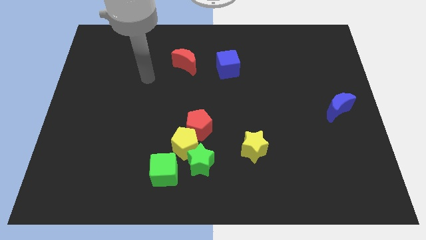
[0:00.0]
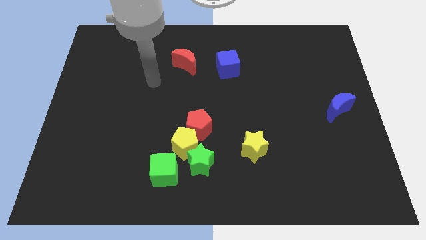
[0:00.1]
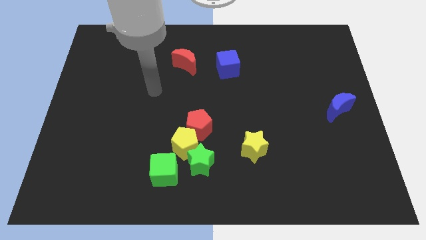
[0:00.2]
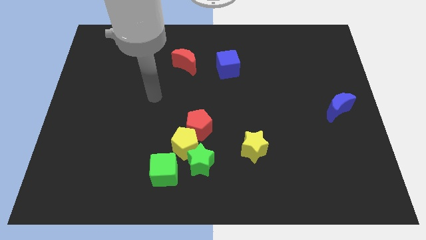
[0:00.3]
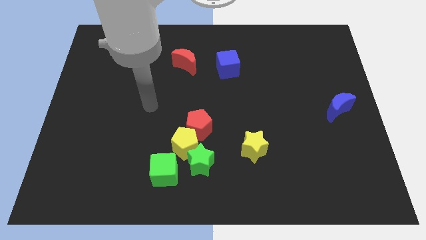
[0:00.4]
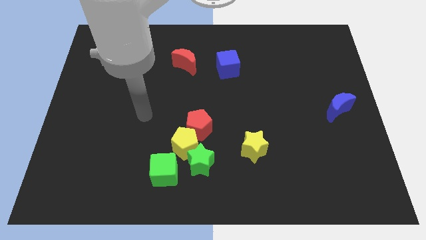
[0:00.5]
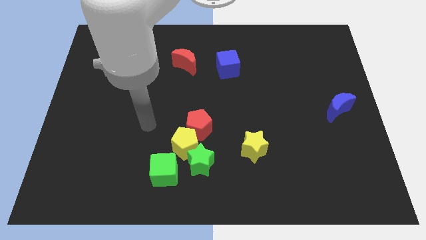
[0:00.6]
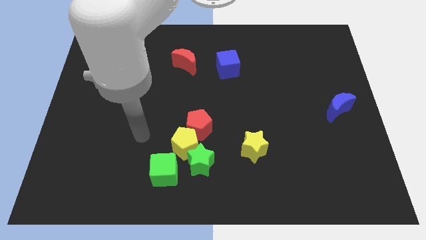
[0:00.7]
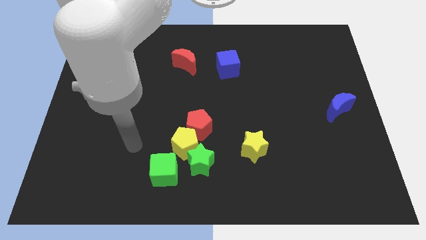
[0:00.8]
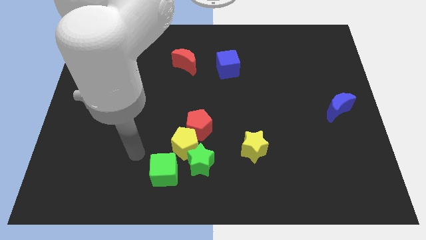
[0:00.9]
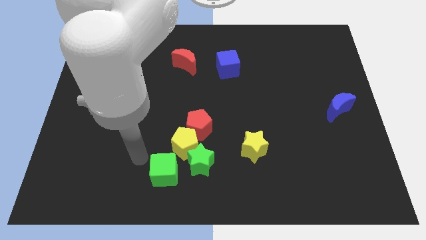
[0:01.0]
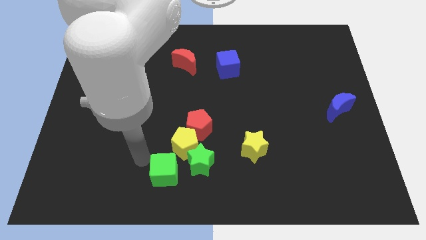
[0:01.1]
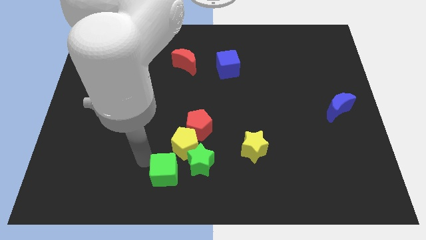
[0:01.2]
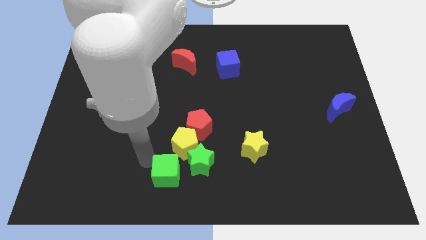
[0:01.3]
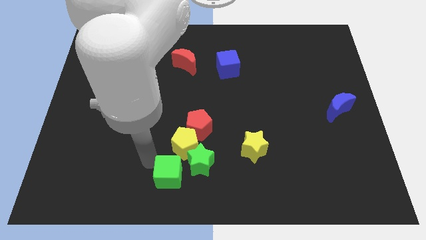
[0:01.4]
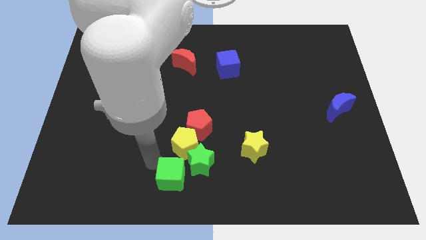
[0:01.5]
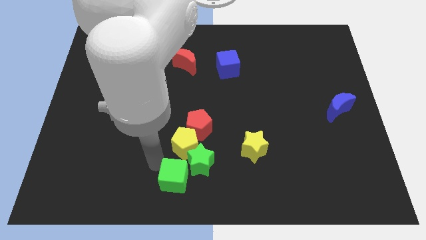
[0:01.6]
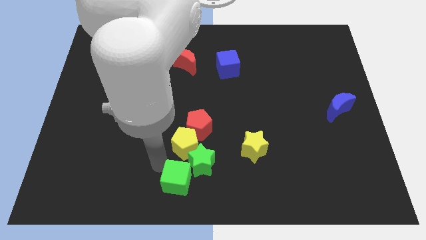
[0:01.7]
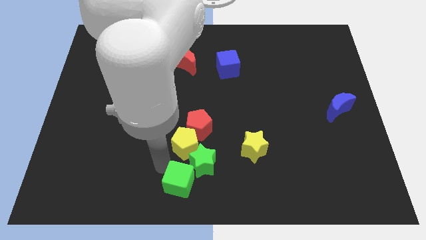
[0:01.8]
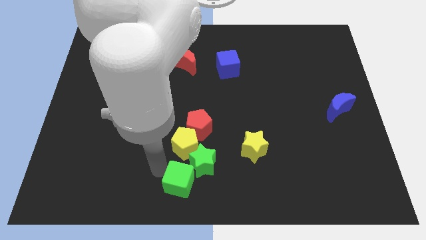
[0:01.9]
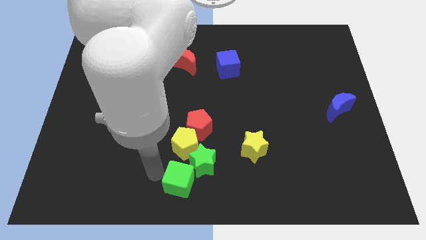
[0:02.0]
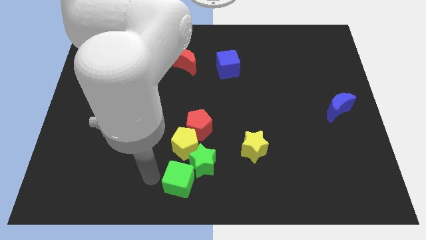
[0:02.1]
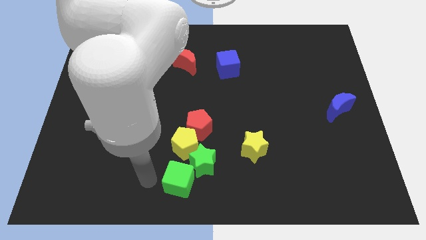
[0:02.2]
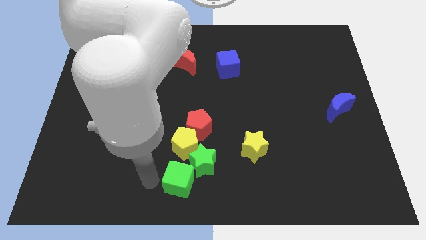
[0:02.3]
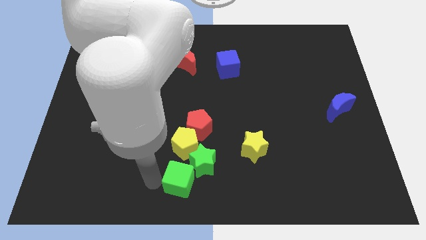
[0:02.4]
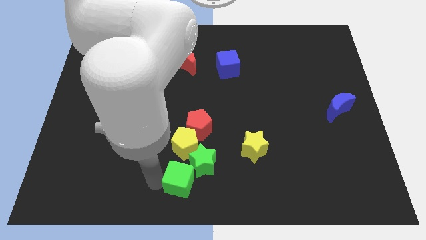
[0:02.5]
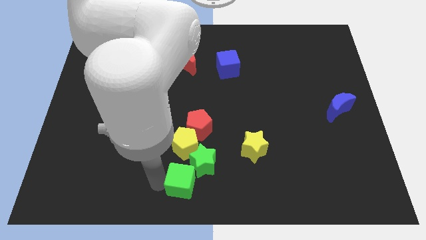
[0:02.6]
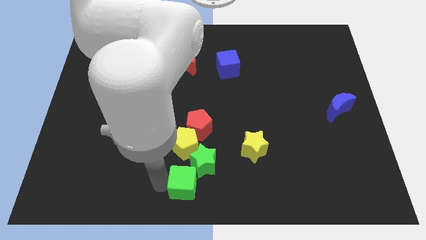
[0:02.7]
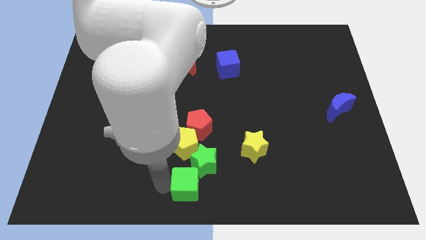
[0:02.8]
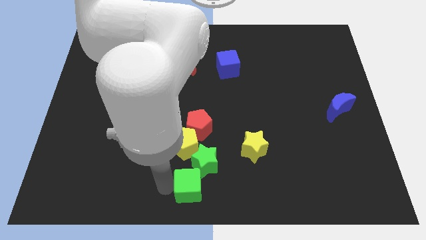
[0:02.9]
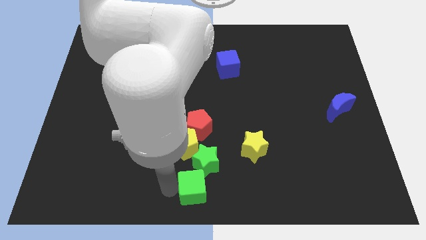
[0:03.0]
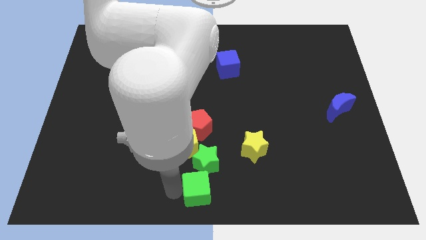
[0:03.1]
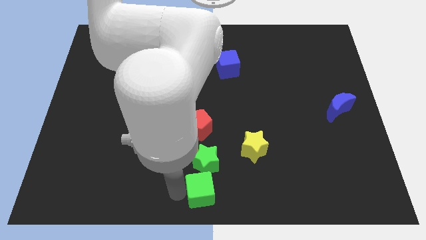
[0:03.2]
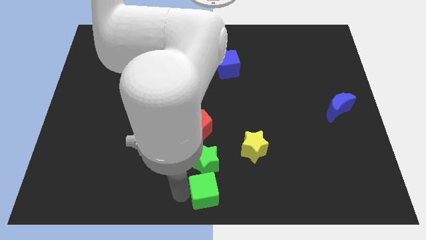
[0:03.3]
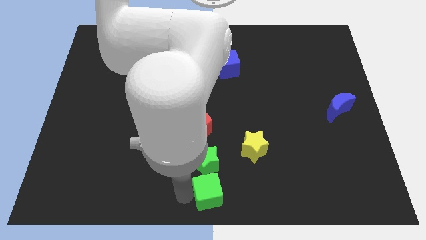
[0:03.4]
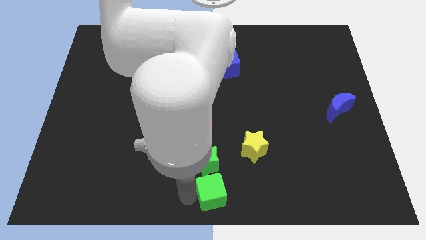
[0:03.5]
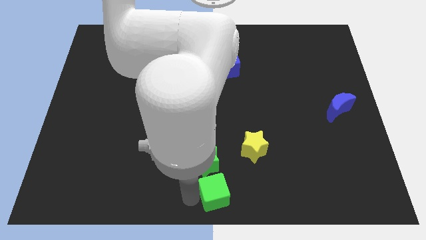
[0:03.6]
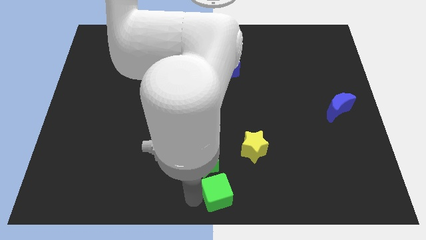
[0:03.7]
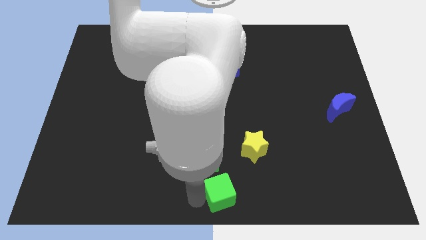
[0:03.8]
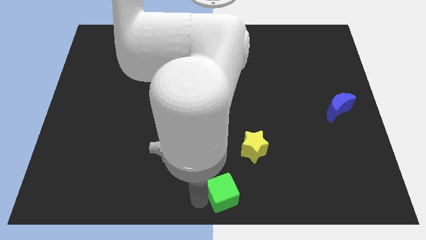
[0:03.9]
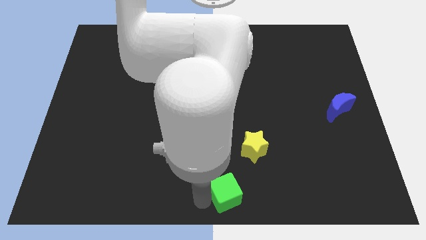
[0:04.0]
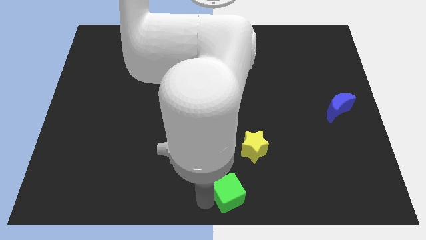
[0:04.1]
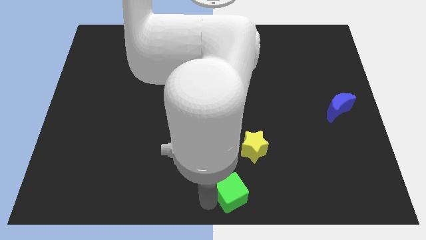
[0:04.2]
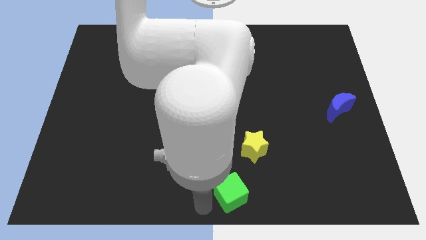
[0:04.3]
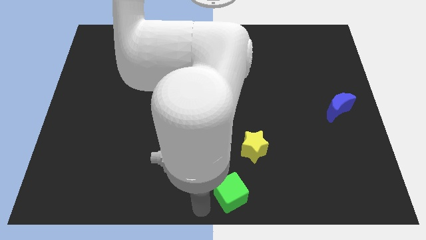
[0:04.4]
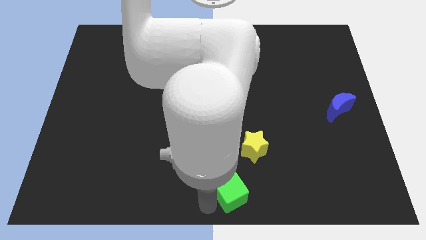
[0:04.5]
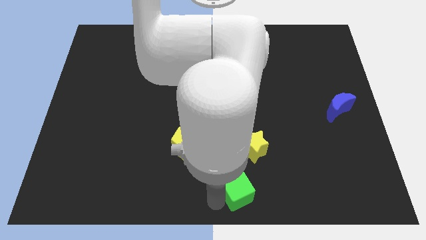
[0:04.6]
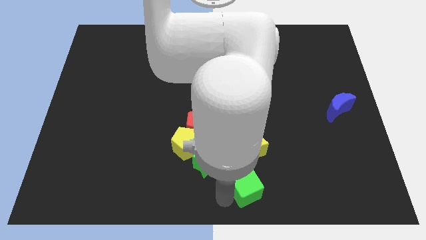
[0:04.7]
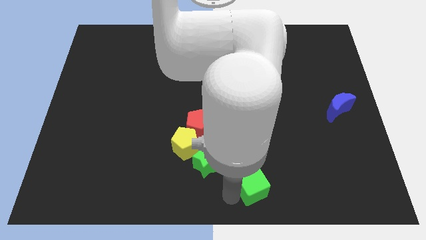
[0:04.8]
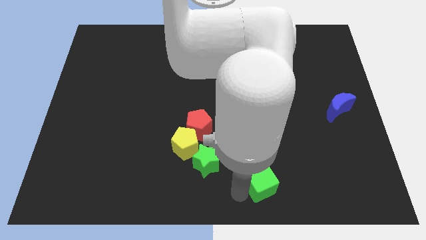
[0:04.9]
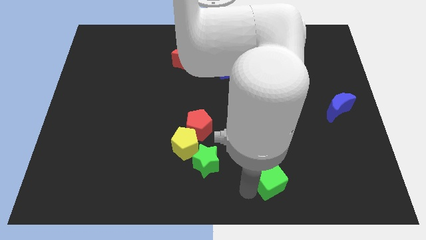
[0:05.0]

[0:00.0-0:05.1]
move the green cube diagonally down and to the right of the yellow star

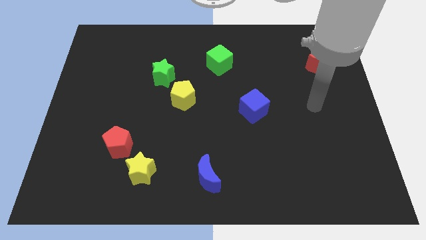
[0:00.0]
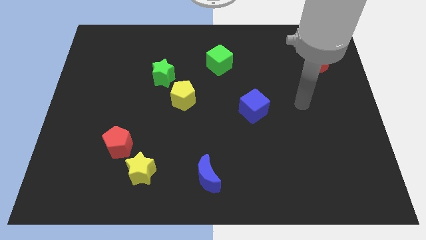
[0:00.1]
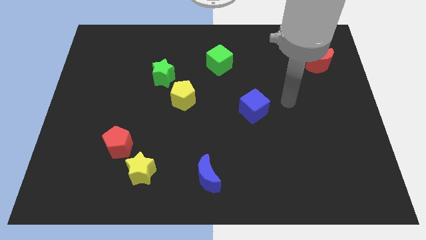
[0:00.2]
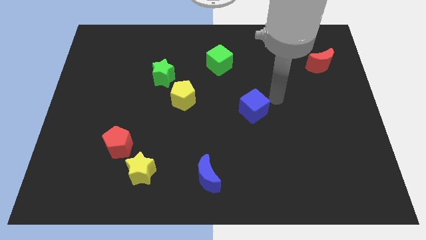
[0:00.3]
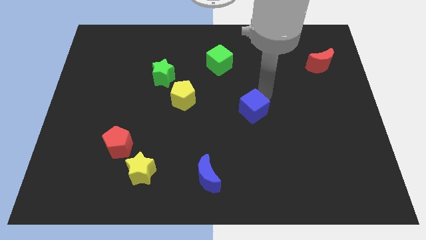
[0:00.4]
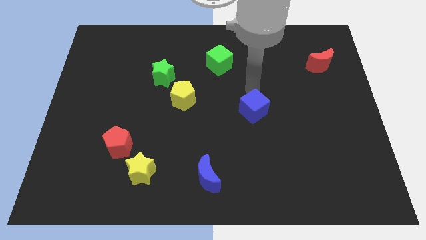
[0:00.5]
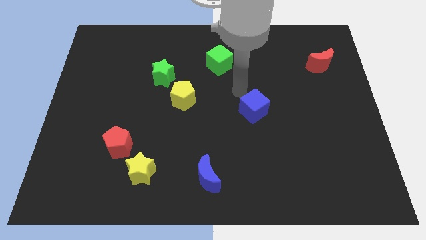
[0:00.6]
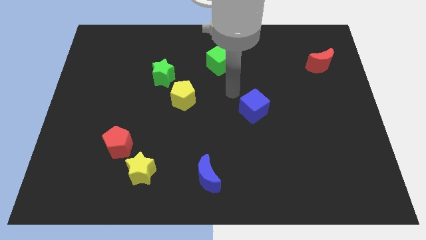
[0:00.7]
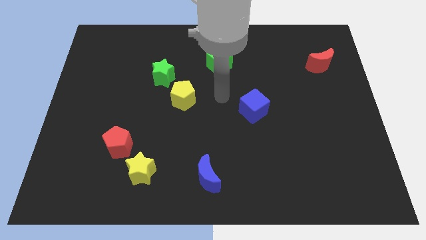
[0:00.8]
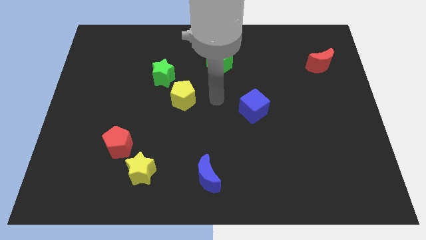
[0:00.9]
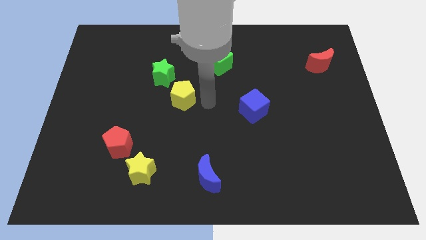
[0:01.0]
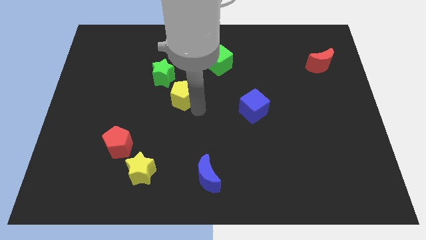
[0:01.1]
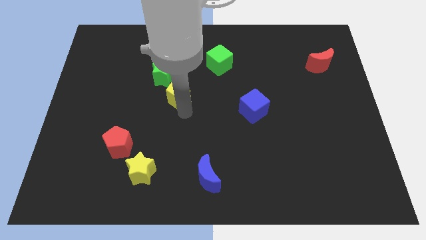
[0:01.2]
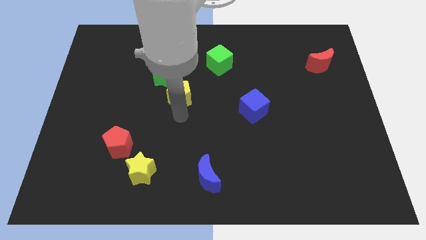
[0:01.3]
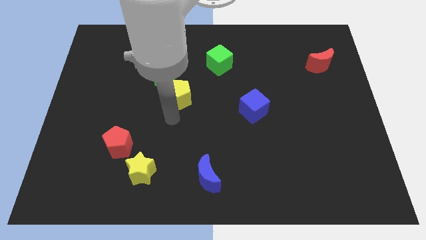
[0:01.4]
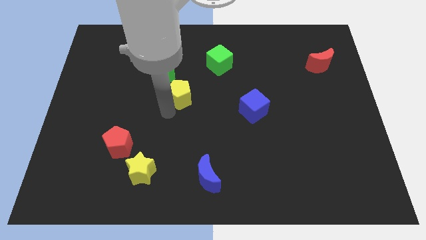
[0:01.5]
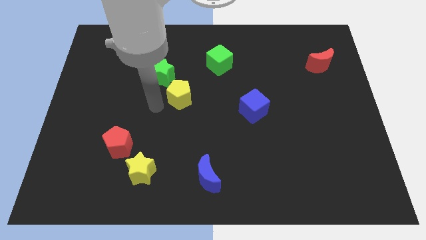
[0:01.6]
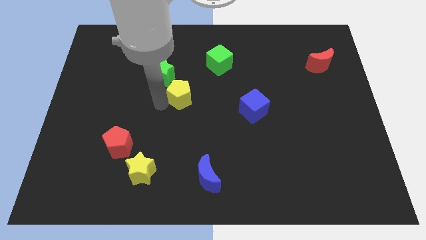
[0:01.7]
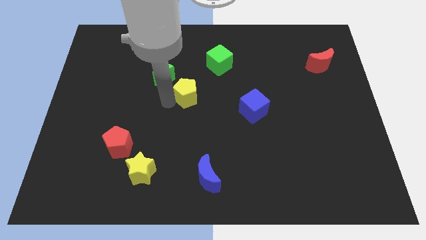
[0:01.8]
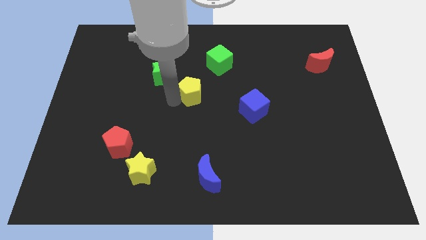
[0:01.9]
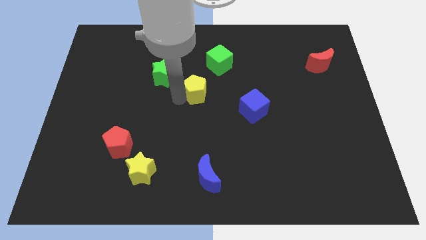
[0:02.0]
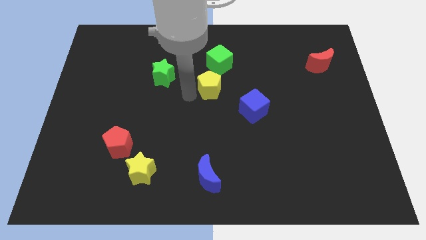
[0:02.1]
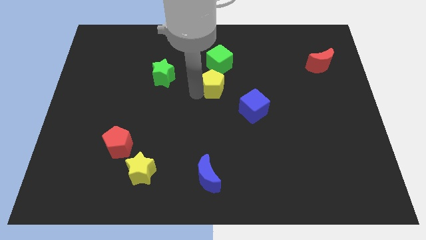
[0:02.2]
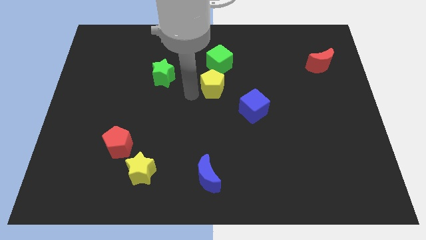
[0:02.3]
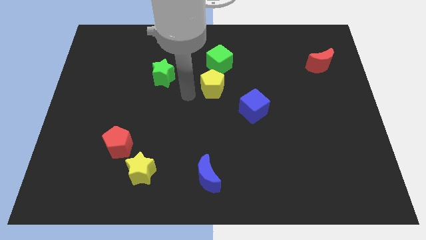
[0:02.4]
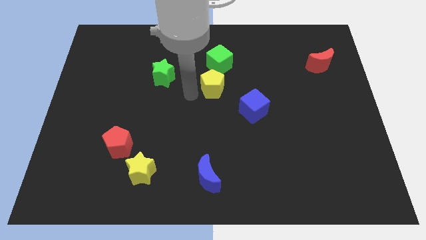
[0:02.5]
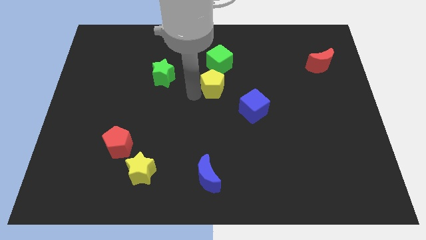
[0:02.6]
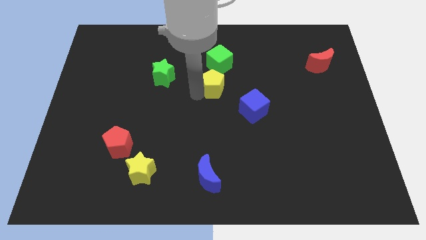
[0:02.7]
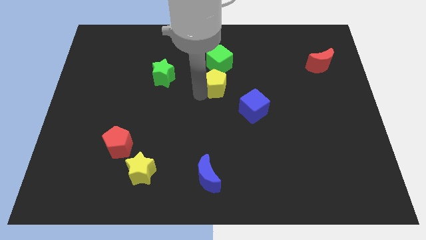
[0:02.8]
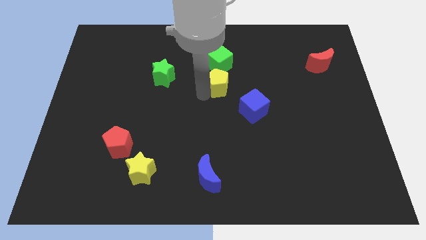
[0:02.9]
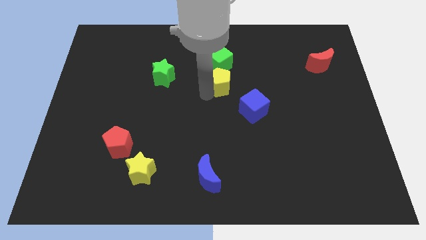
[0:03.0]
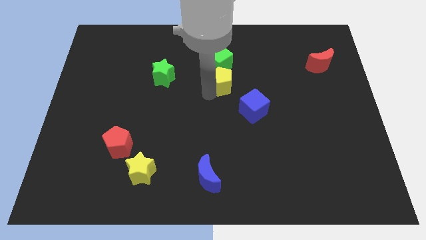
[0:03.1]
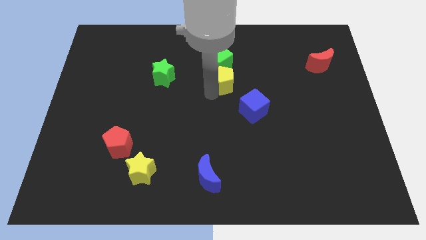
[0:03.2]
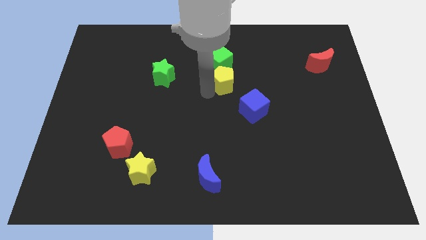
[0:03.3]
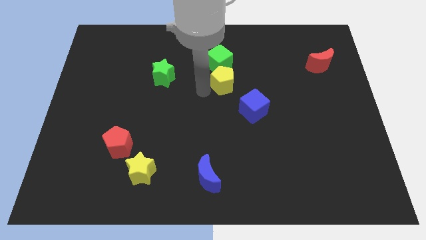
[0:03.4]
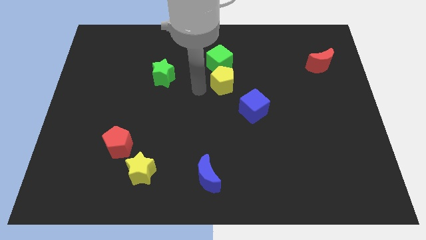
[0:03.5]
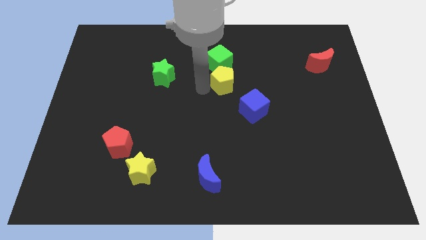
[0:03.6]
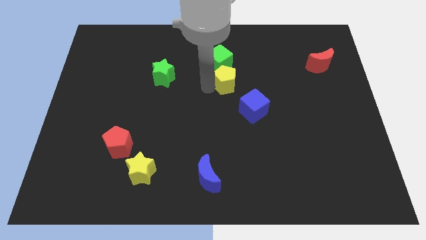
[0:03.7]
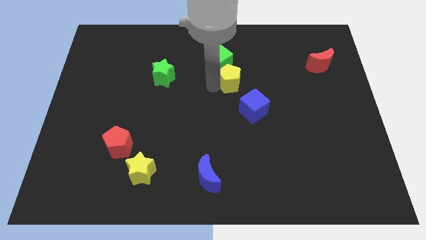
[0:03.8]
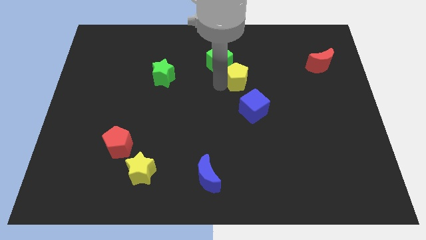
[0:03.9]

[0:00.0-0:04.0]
put the yellow pentagon to the top of the blue cube
